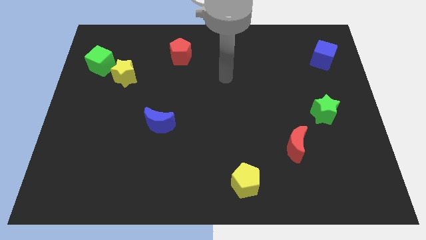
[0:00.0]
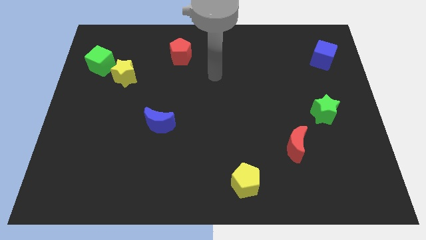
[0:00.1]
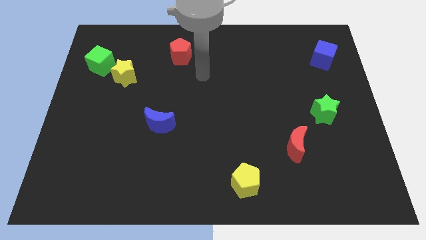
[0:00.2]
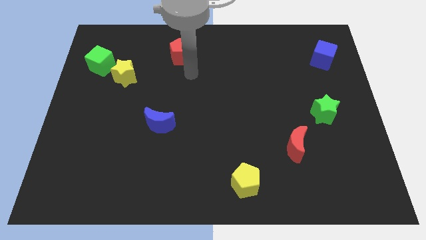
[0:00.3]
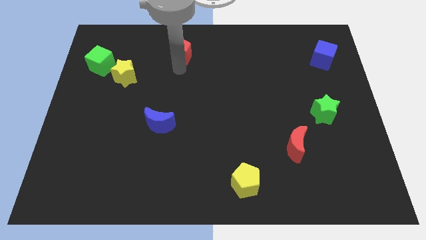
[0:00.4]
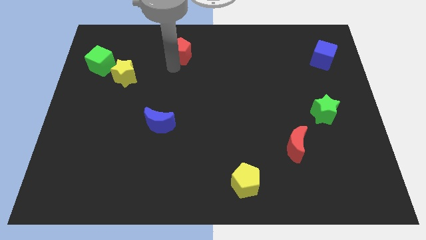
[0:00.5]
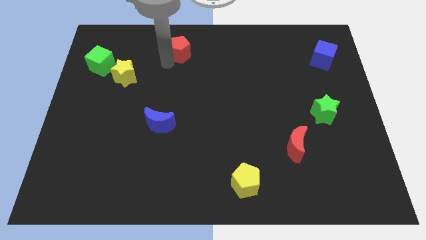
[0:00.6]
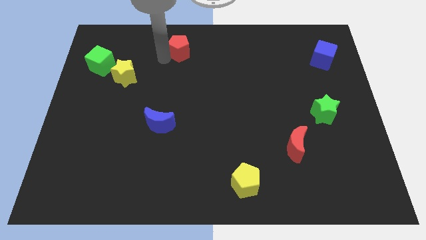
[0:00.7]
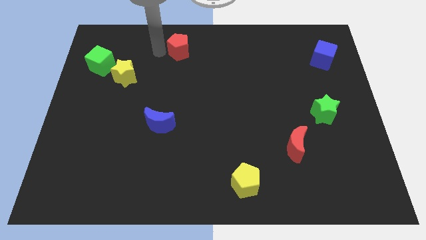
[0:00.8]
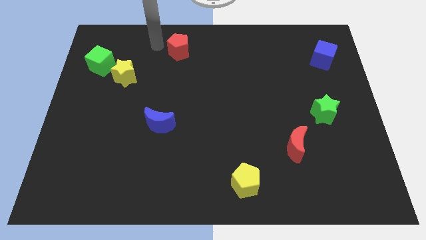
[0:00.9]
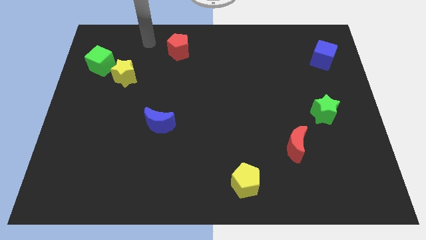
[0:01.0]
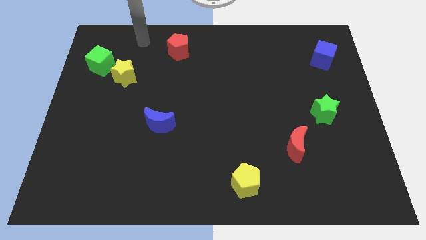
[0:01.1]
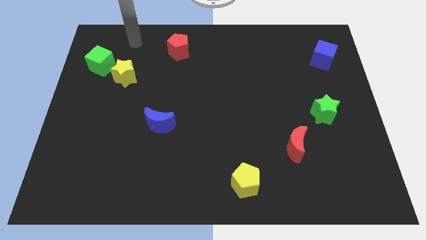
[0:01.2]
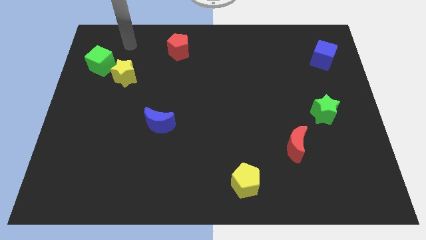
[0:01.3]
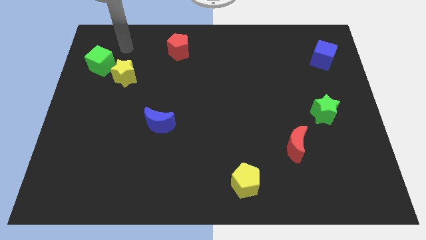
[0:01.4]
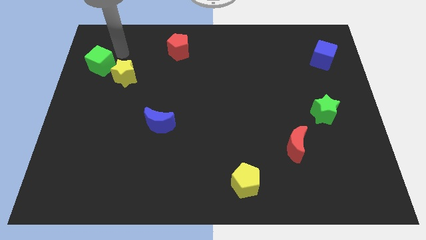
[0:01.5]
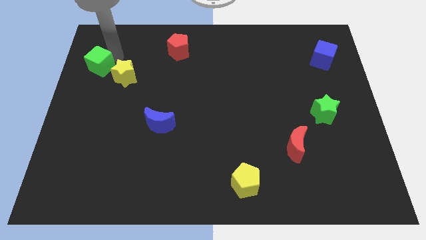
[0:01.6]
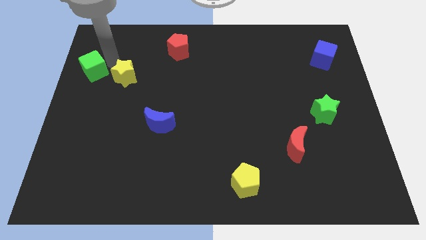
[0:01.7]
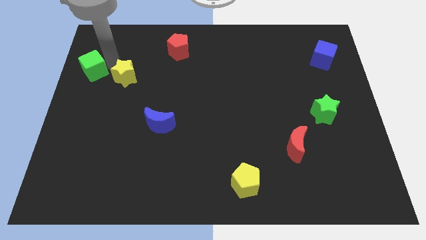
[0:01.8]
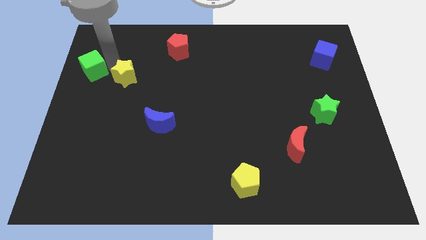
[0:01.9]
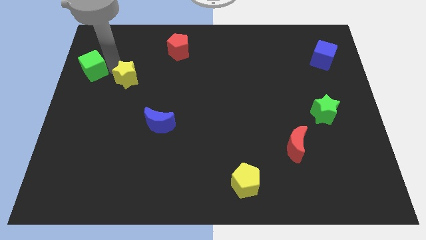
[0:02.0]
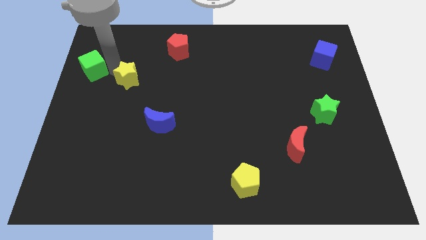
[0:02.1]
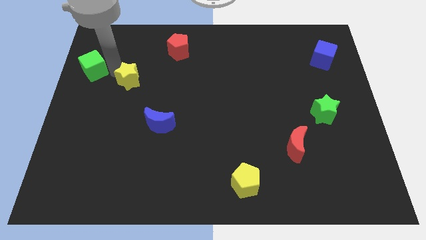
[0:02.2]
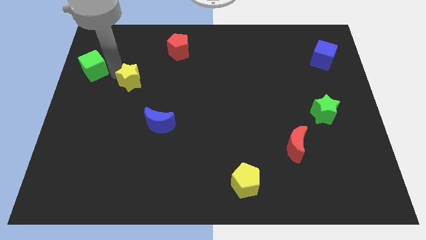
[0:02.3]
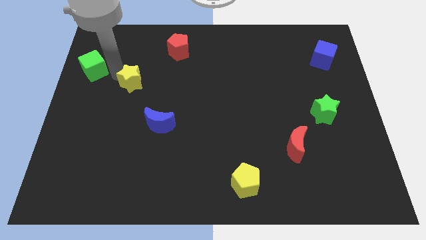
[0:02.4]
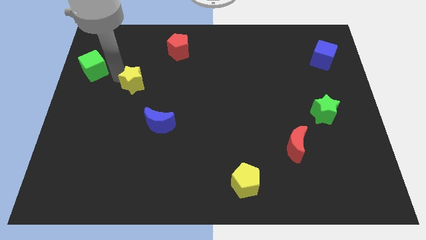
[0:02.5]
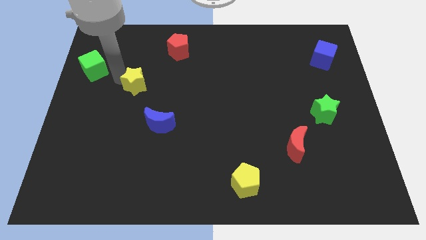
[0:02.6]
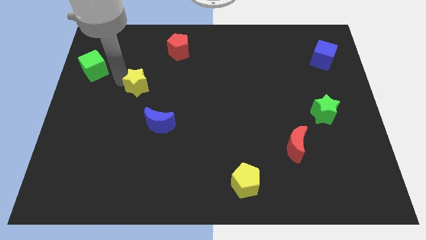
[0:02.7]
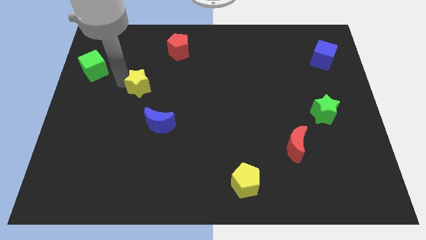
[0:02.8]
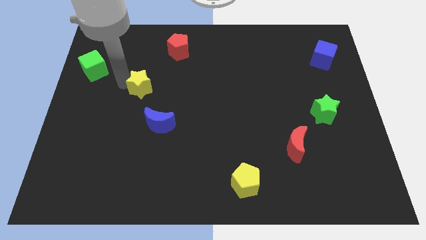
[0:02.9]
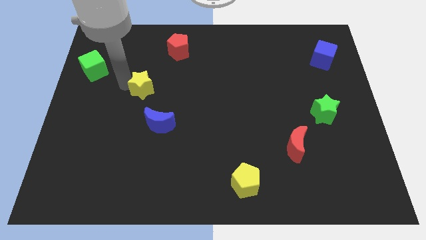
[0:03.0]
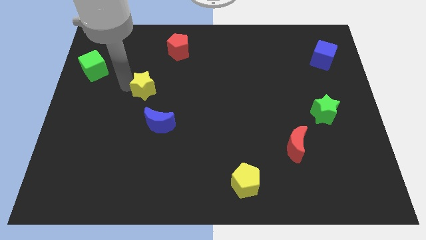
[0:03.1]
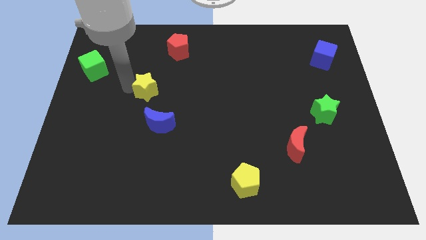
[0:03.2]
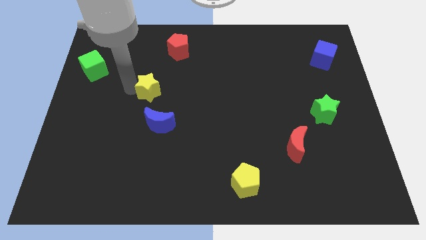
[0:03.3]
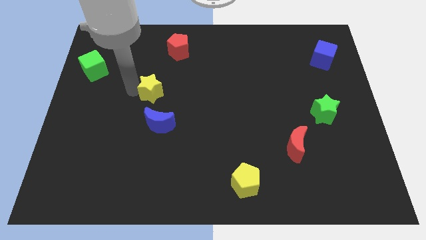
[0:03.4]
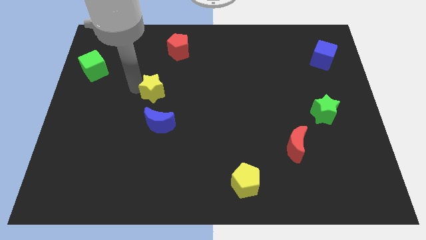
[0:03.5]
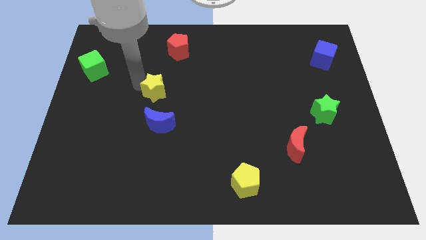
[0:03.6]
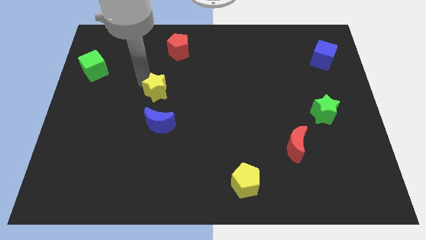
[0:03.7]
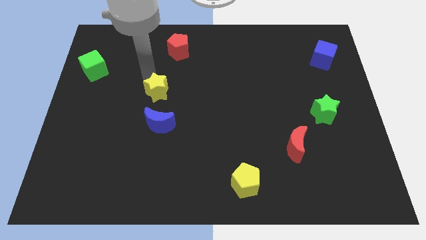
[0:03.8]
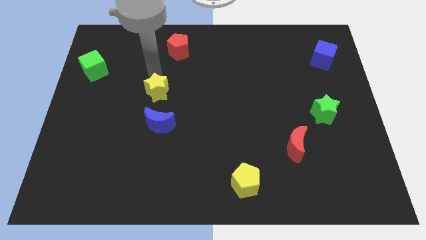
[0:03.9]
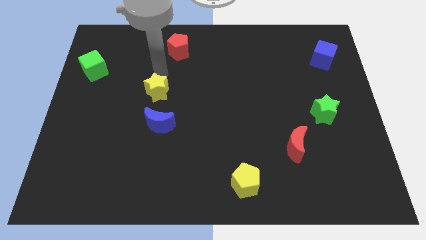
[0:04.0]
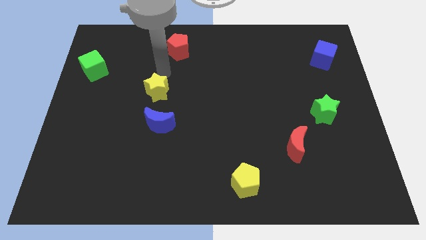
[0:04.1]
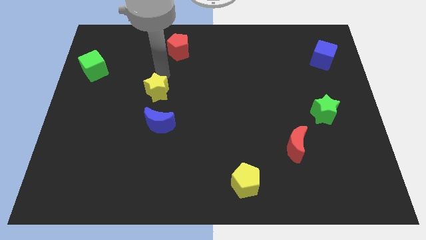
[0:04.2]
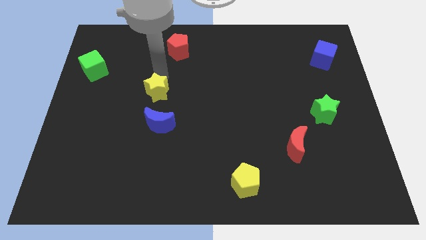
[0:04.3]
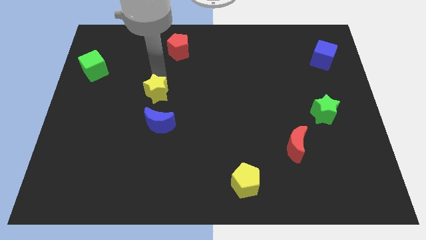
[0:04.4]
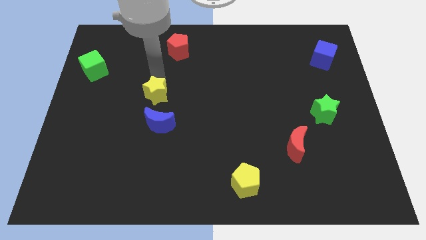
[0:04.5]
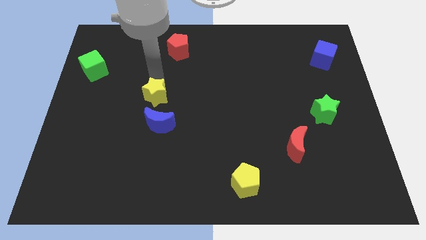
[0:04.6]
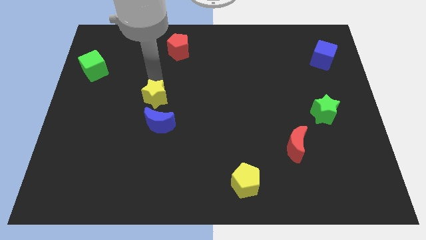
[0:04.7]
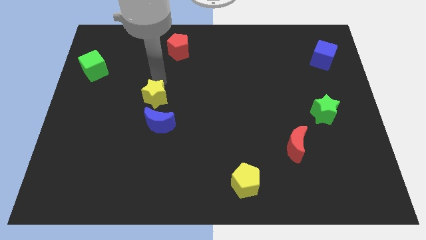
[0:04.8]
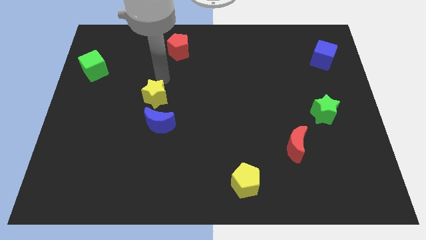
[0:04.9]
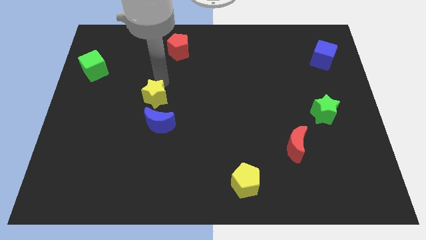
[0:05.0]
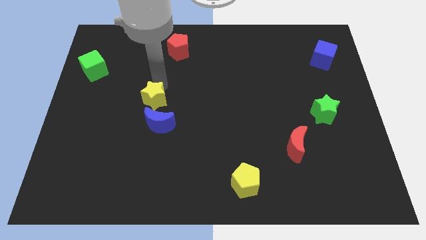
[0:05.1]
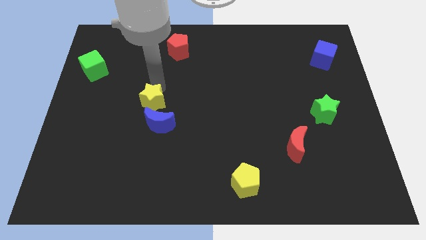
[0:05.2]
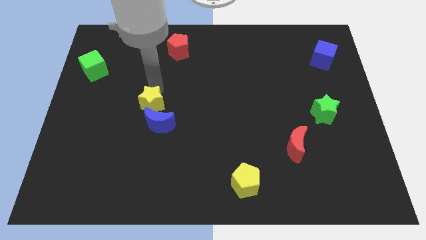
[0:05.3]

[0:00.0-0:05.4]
push the yellow star close to the blue moon

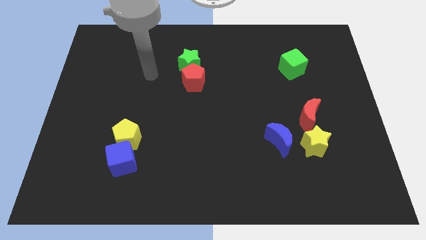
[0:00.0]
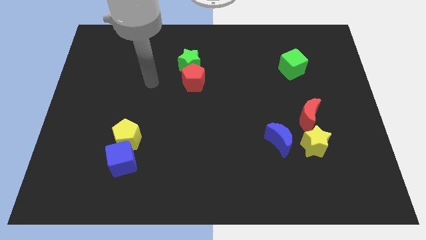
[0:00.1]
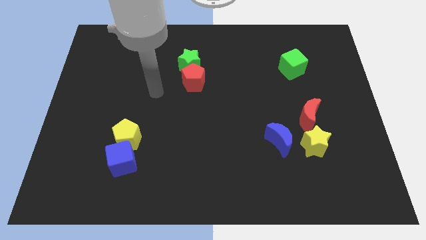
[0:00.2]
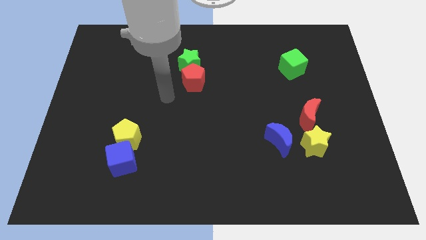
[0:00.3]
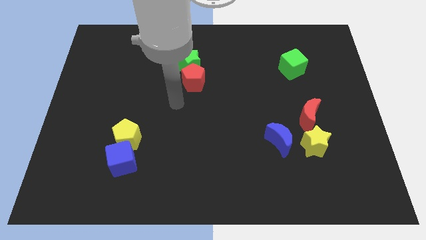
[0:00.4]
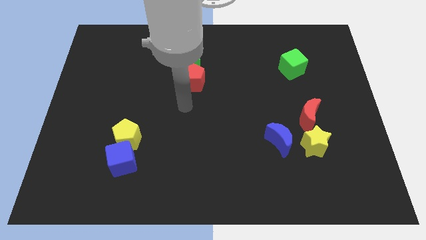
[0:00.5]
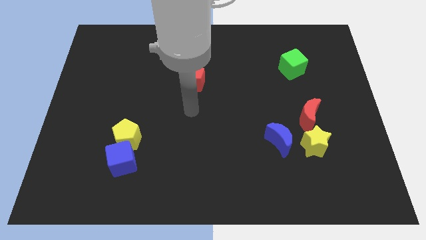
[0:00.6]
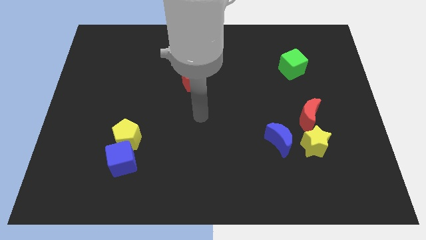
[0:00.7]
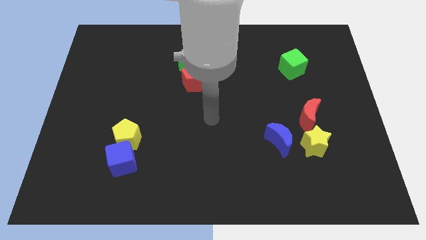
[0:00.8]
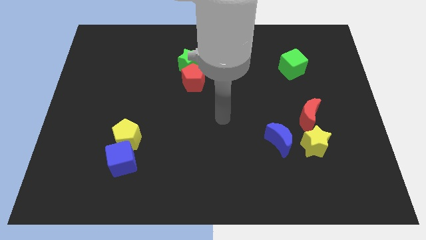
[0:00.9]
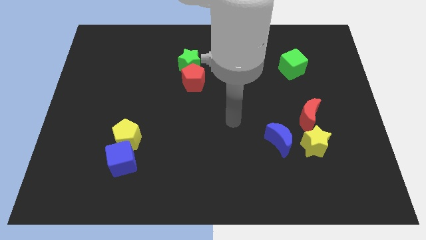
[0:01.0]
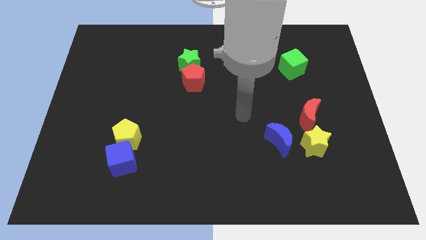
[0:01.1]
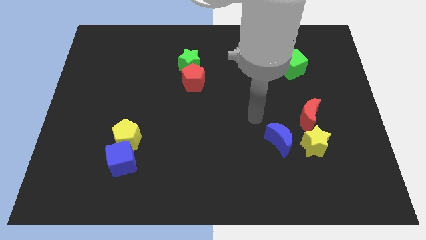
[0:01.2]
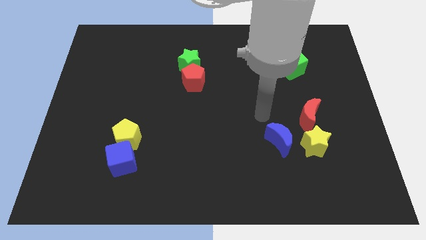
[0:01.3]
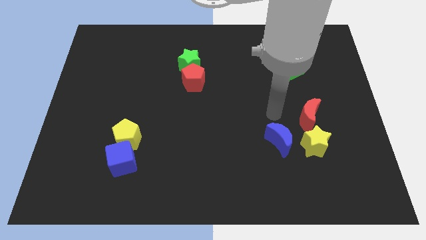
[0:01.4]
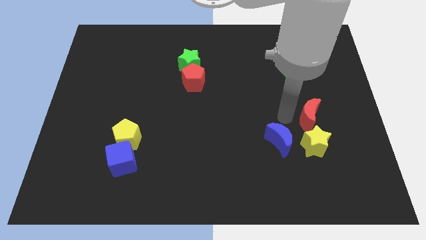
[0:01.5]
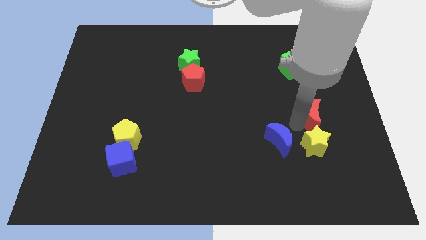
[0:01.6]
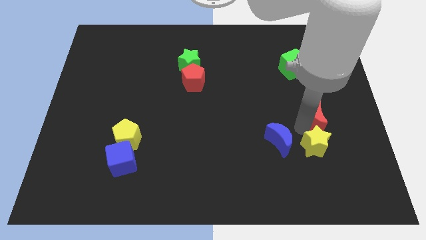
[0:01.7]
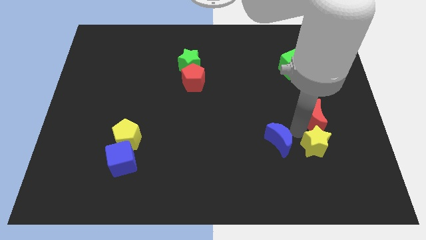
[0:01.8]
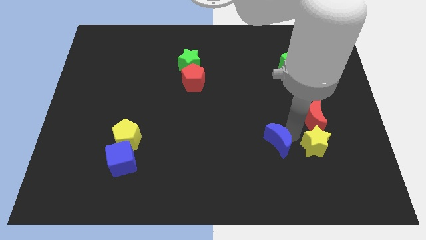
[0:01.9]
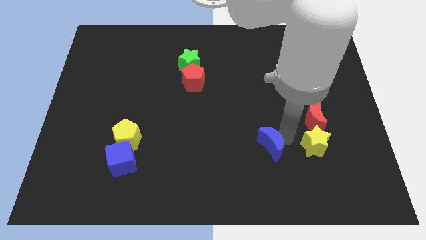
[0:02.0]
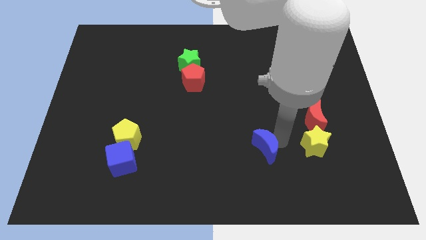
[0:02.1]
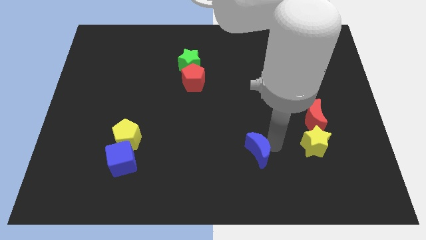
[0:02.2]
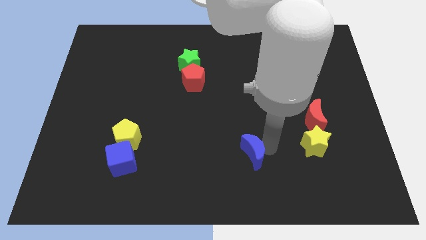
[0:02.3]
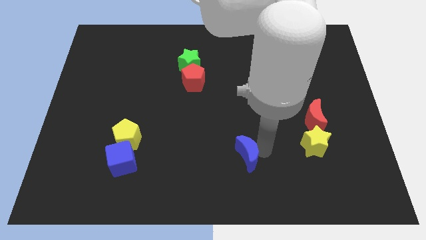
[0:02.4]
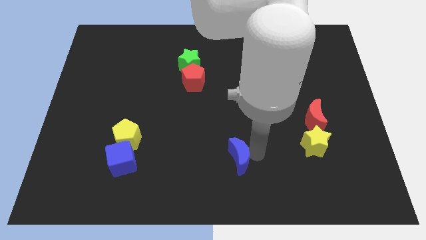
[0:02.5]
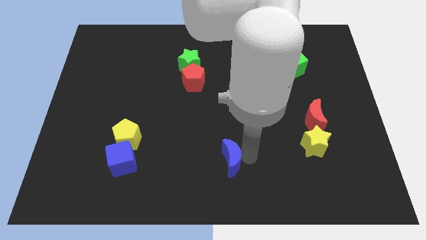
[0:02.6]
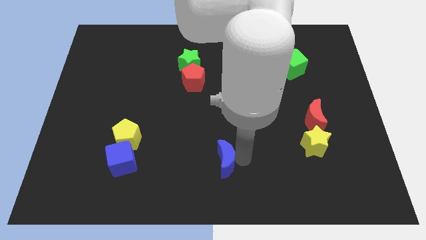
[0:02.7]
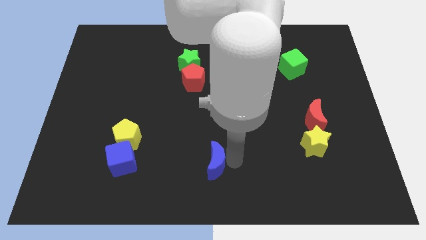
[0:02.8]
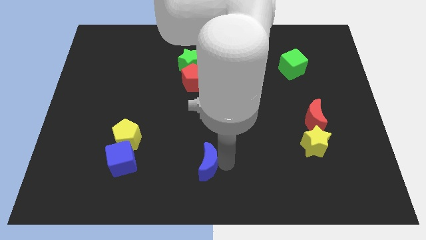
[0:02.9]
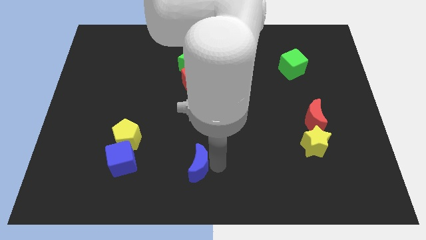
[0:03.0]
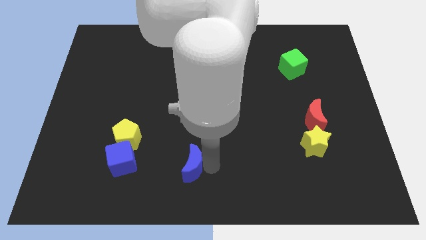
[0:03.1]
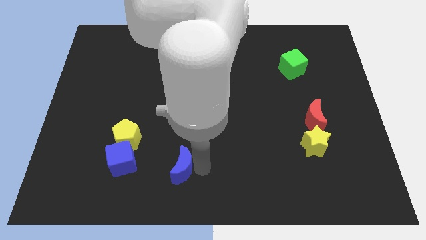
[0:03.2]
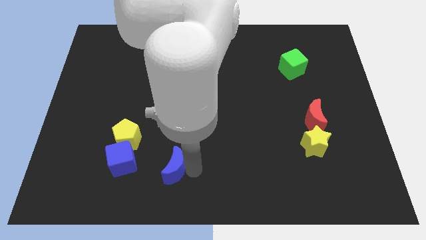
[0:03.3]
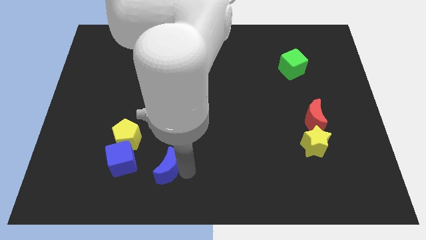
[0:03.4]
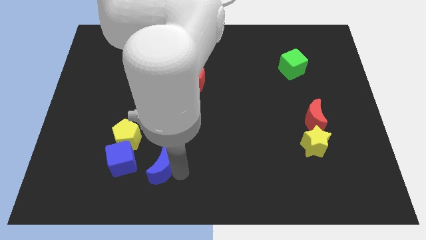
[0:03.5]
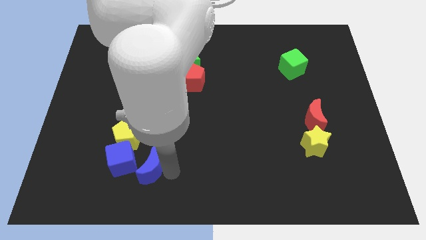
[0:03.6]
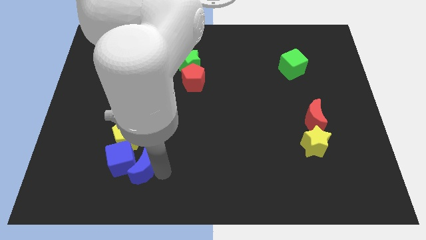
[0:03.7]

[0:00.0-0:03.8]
move the blue moon towards the blue cube
